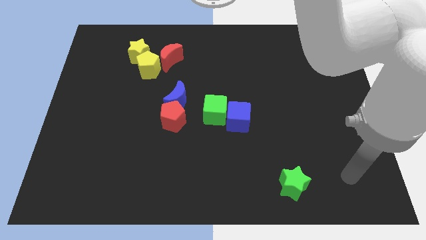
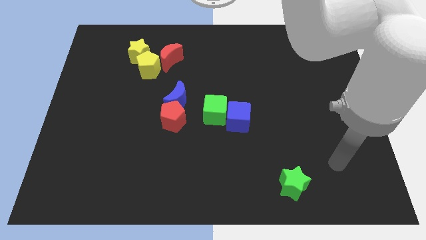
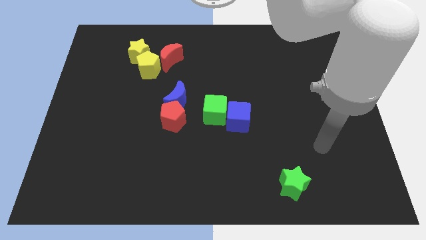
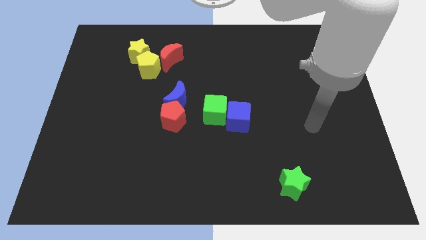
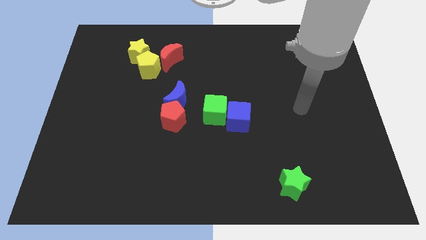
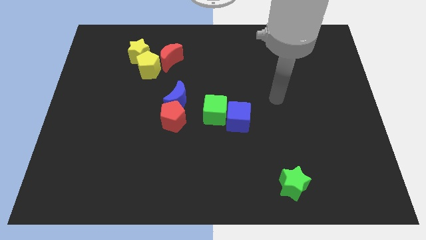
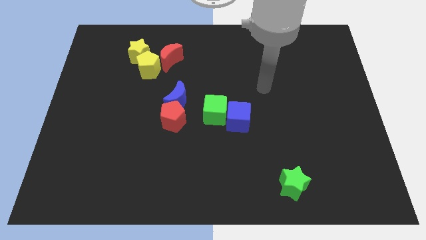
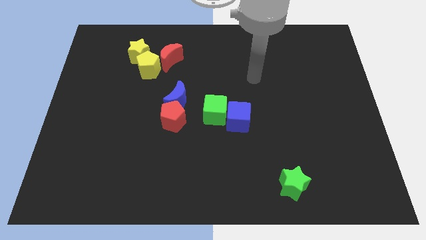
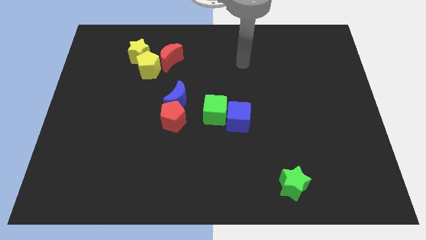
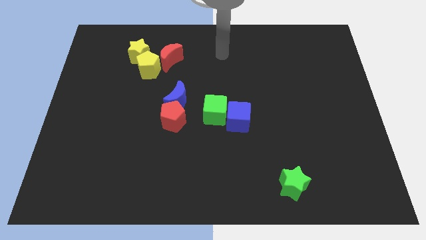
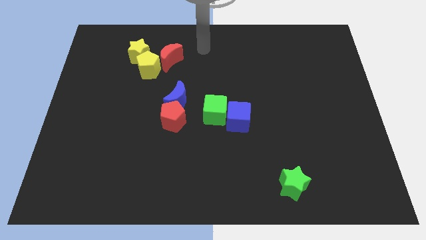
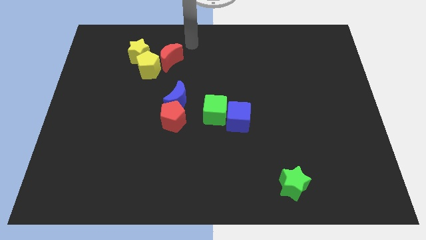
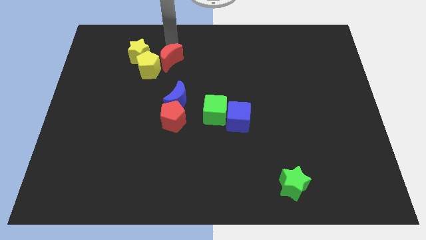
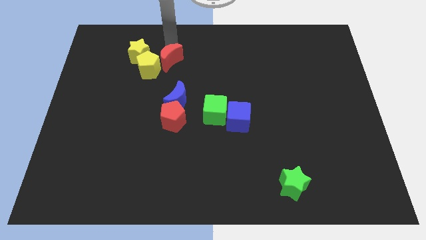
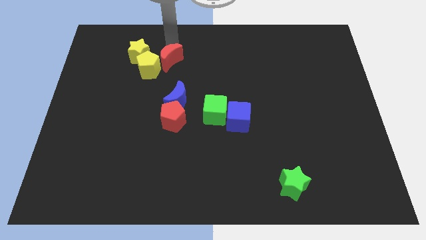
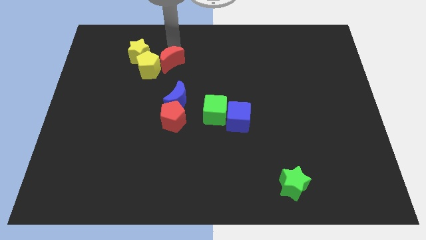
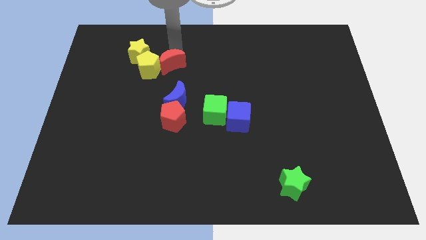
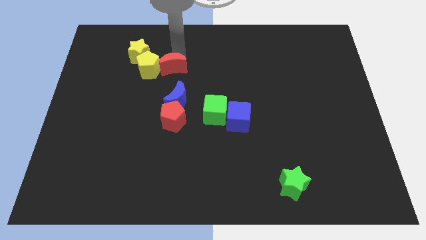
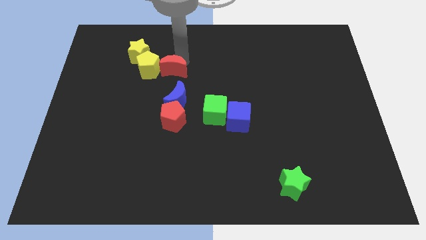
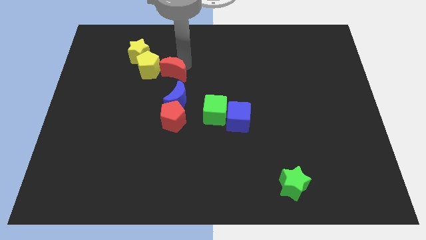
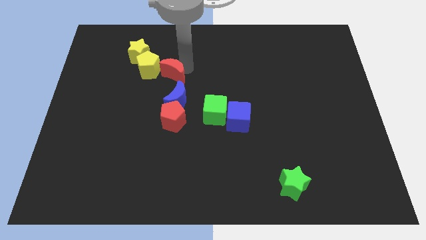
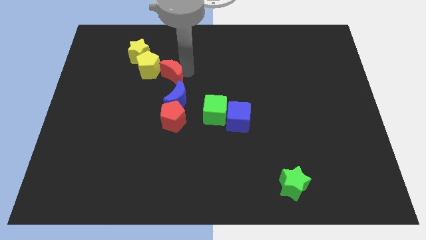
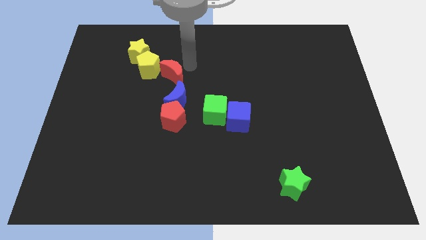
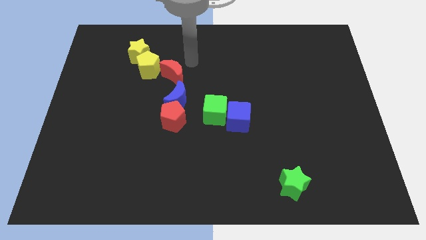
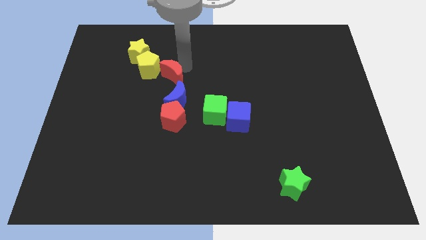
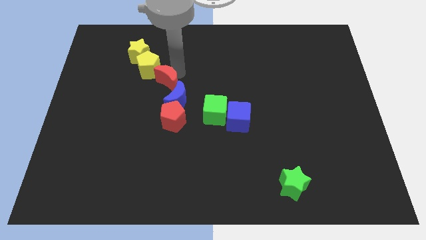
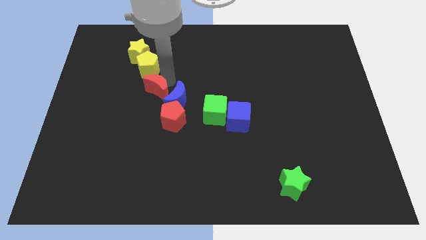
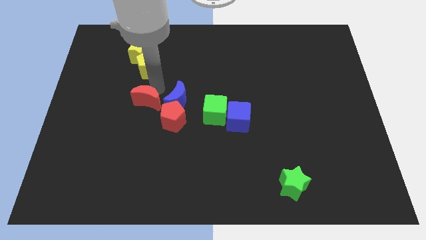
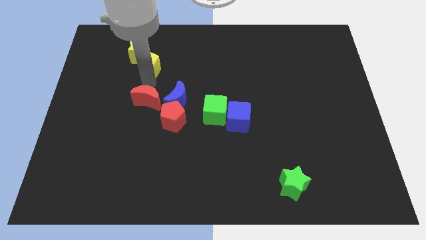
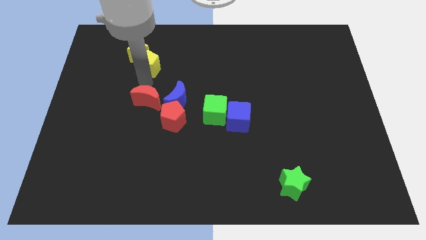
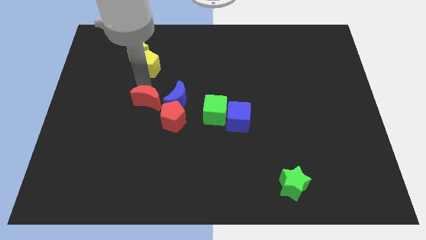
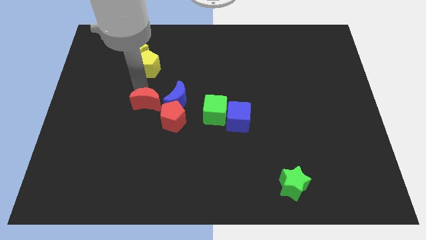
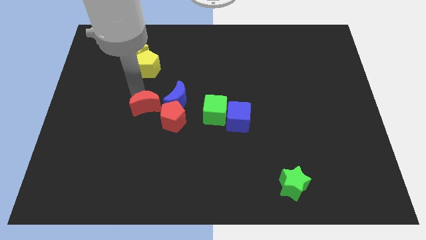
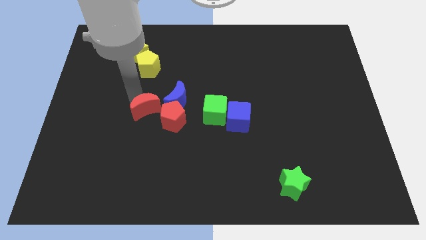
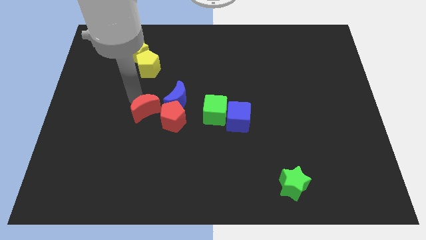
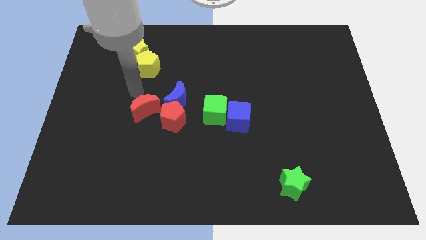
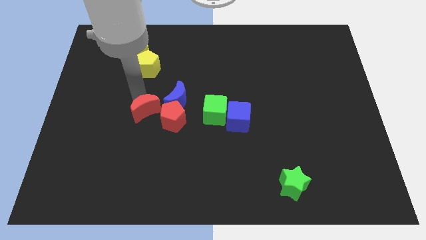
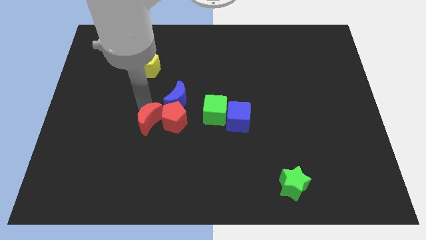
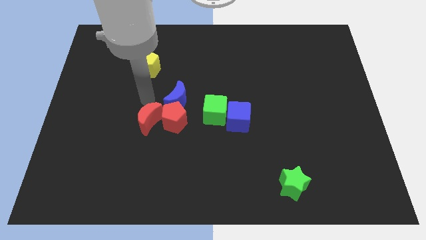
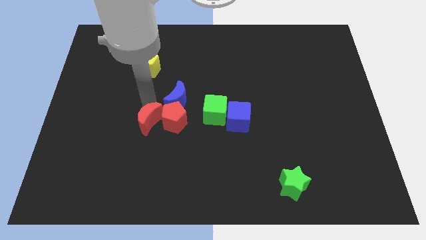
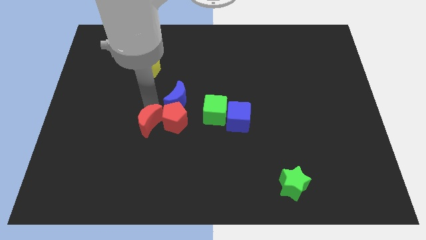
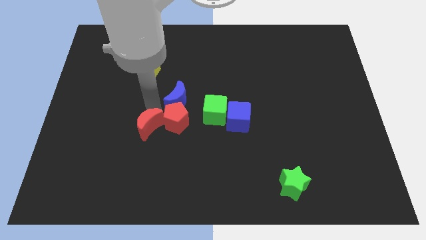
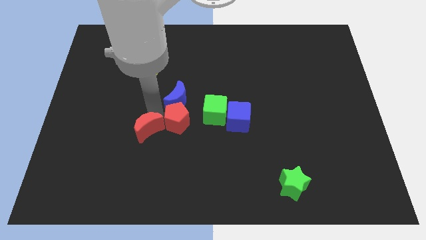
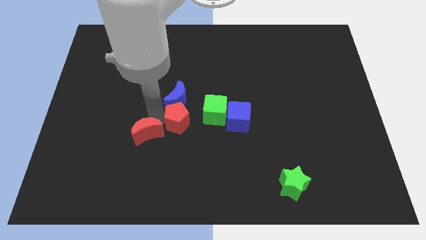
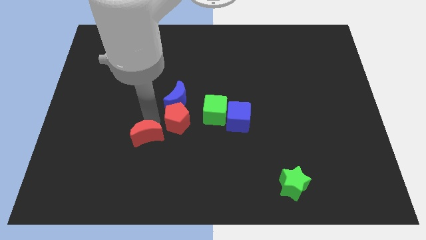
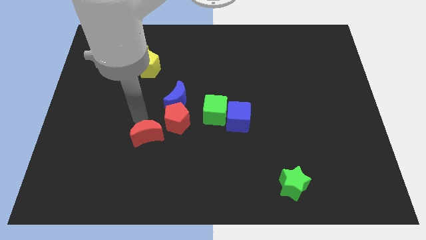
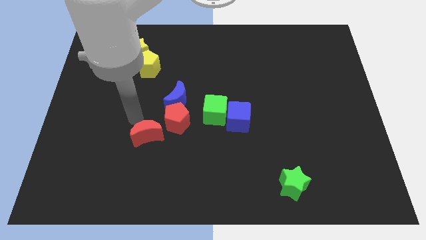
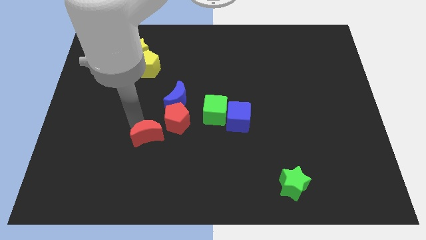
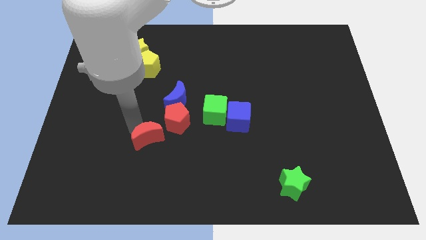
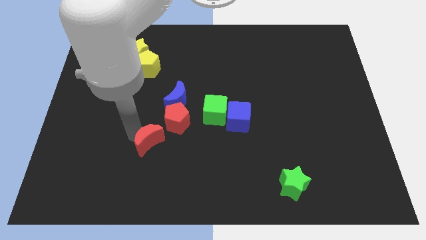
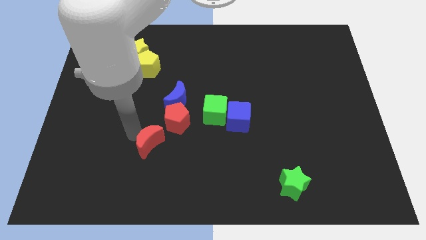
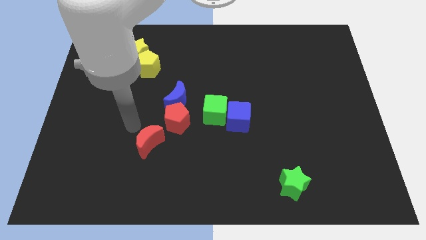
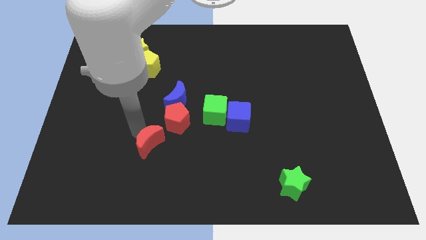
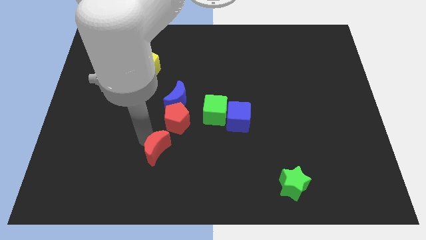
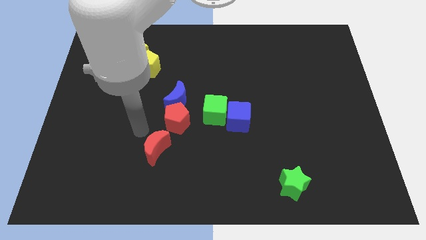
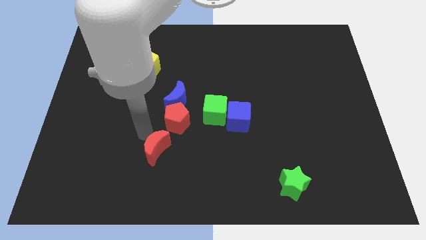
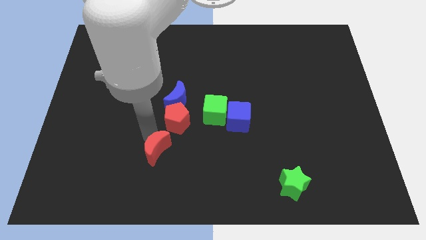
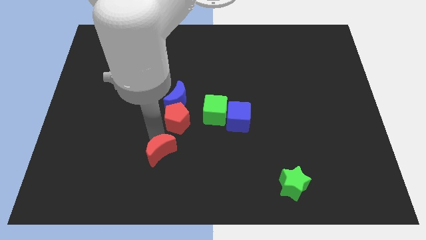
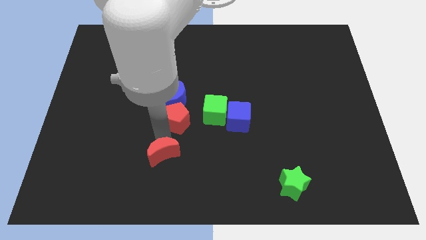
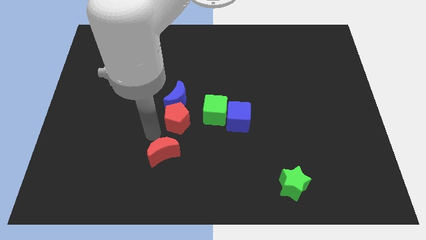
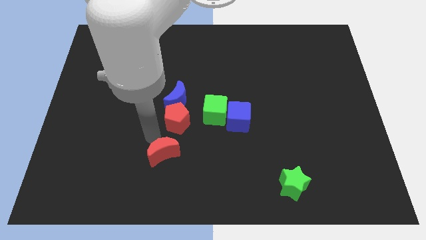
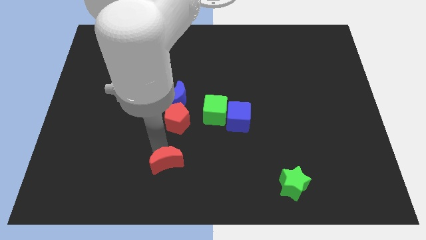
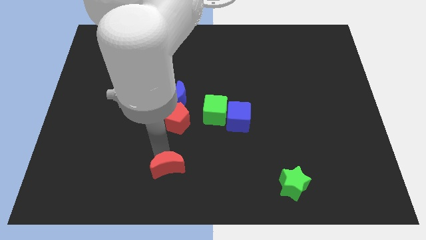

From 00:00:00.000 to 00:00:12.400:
put the red moon to the bottom

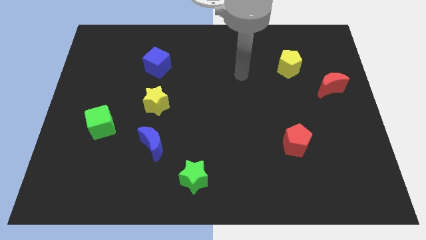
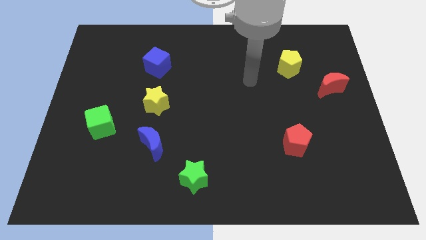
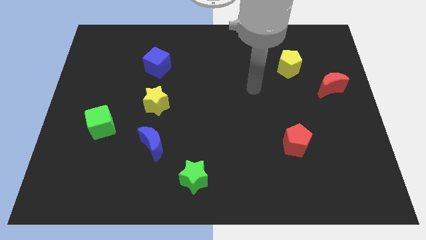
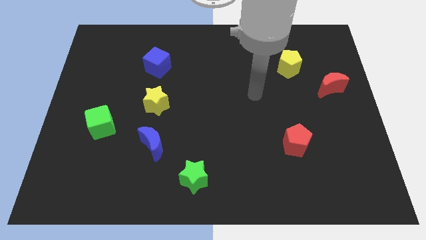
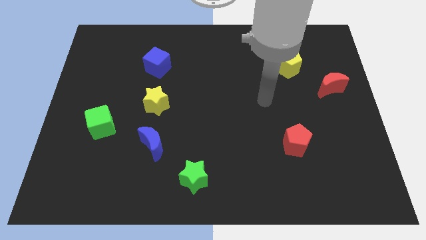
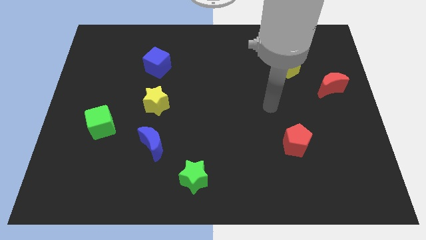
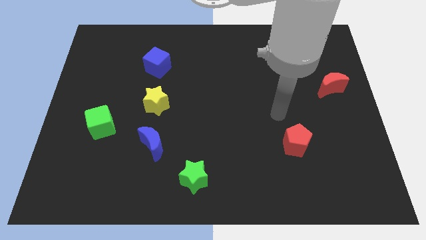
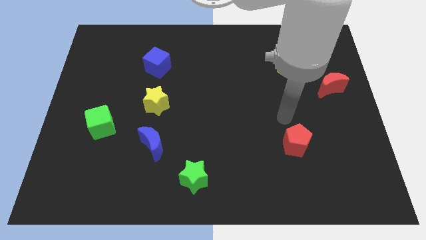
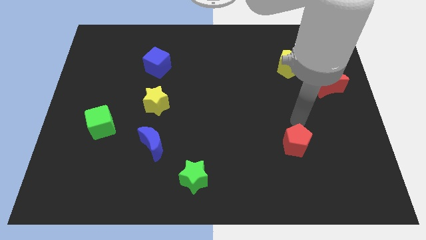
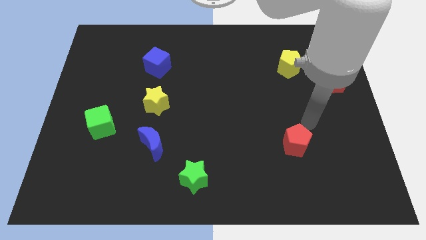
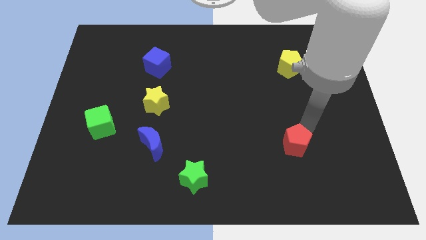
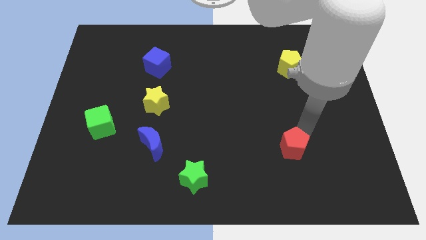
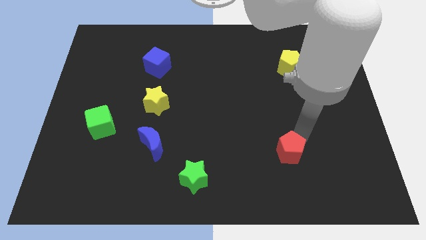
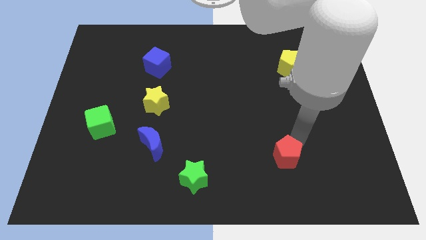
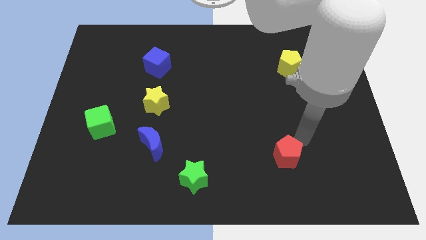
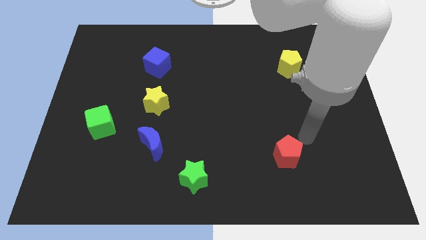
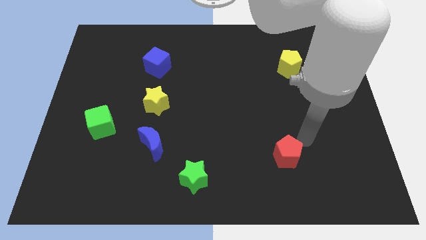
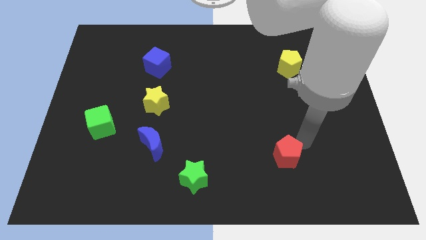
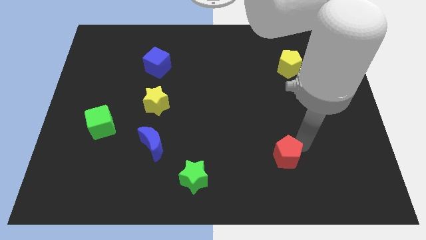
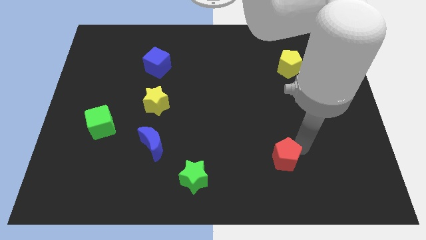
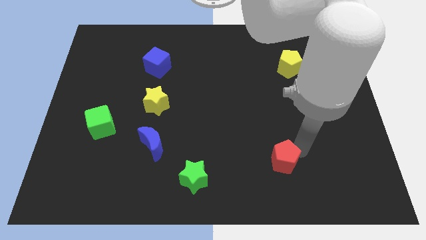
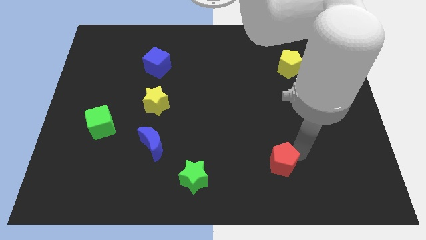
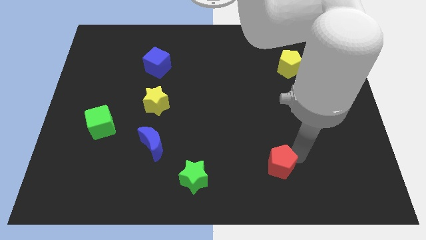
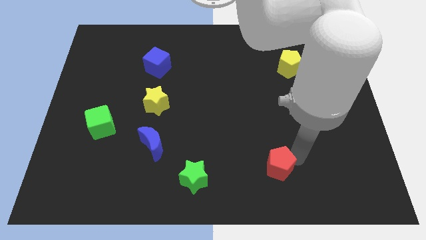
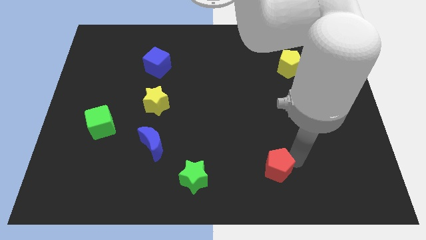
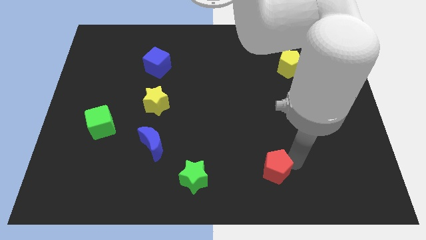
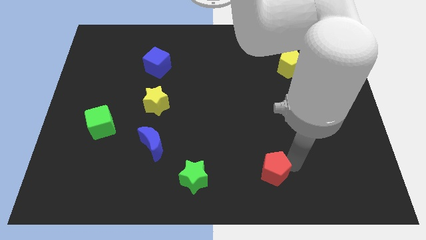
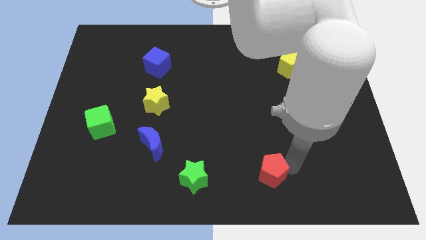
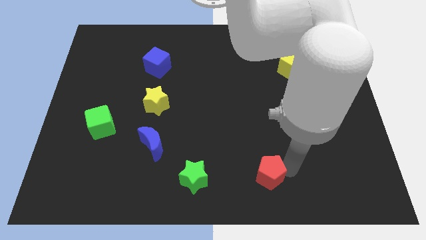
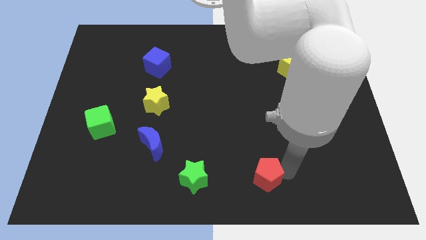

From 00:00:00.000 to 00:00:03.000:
put the red pentagon to the bottom
